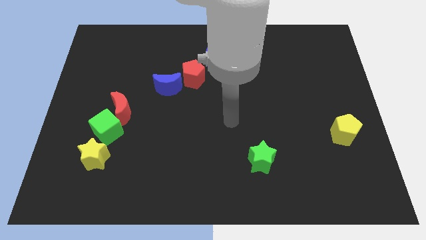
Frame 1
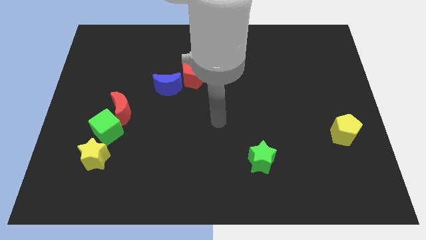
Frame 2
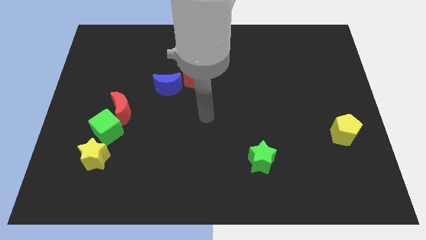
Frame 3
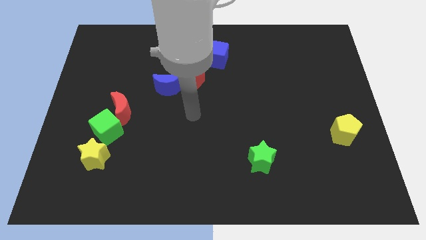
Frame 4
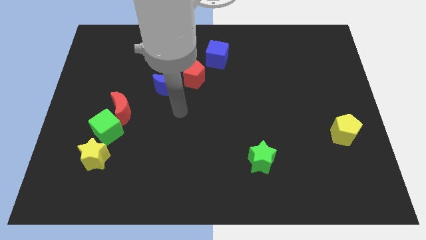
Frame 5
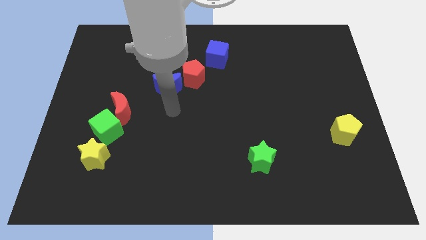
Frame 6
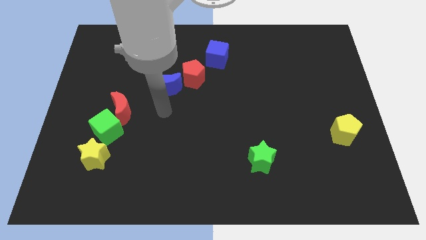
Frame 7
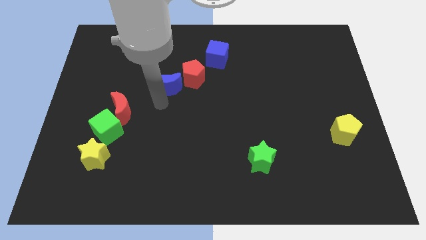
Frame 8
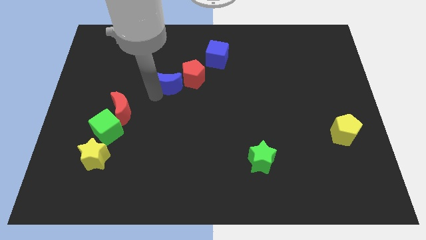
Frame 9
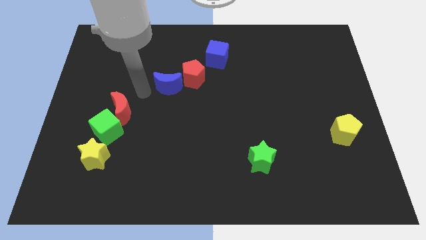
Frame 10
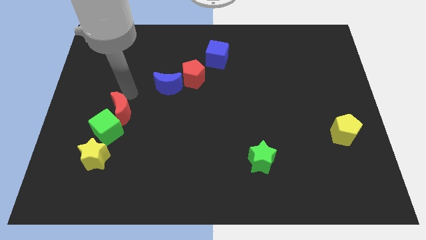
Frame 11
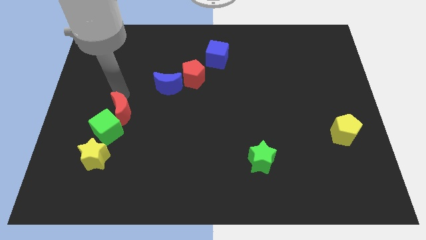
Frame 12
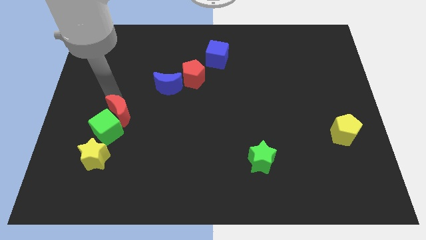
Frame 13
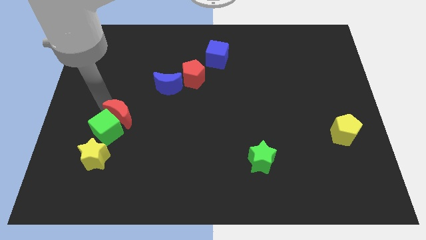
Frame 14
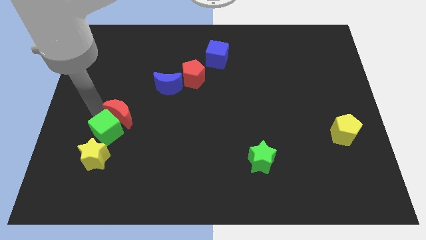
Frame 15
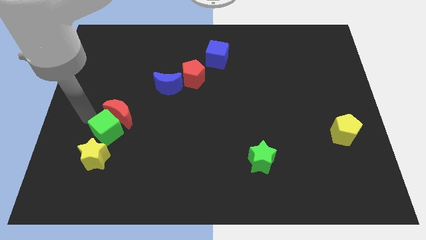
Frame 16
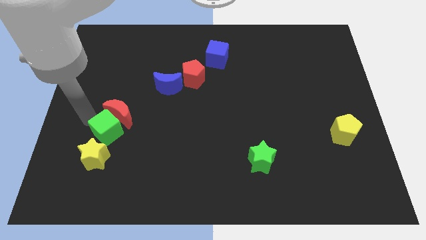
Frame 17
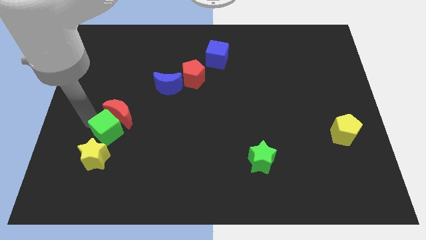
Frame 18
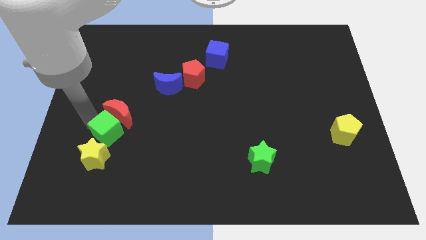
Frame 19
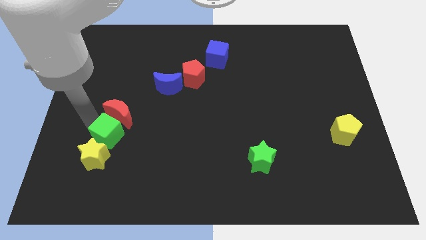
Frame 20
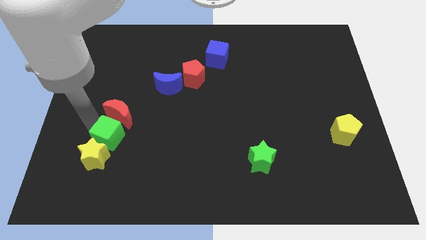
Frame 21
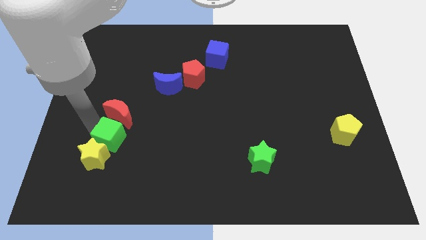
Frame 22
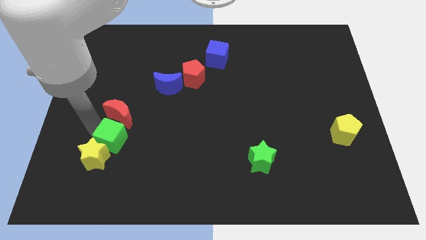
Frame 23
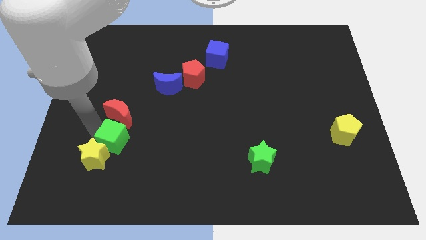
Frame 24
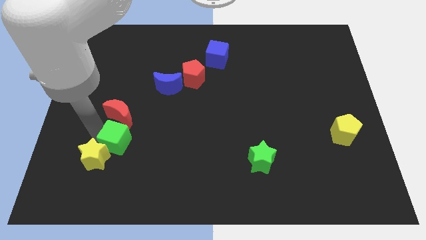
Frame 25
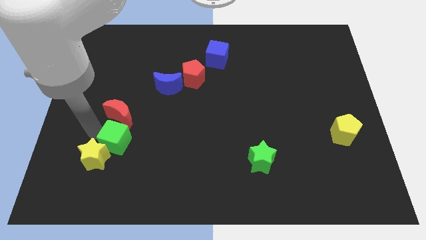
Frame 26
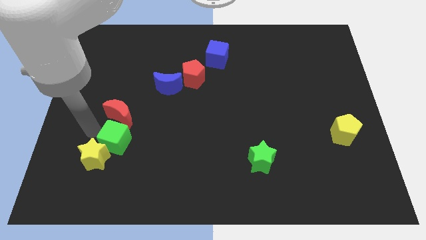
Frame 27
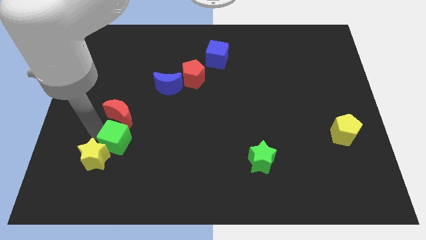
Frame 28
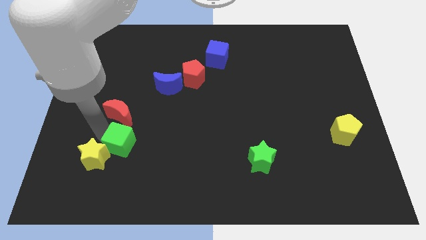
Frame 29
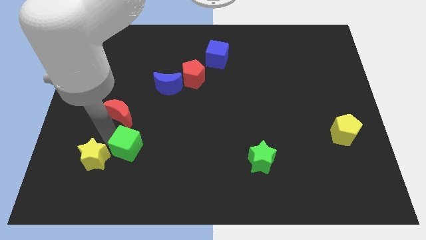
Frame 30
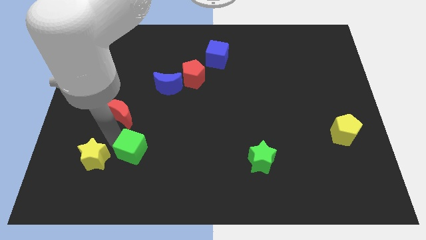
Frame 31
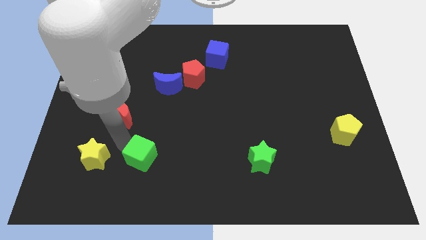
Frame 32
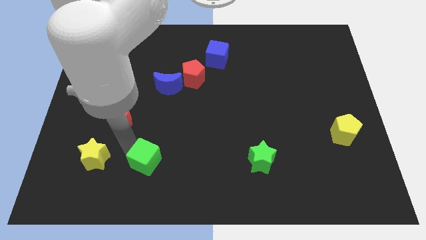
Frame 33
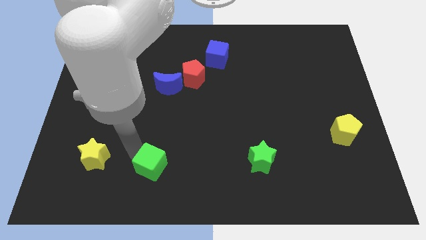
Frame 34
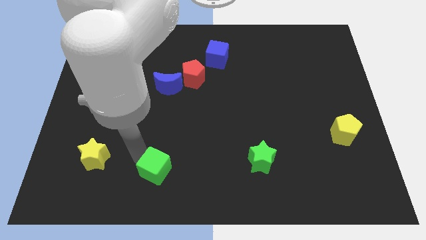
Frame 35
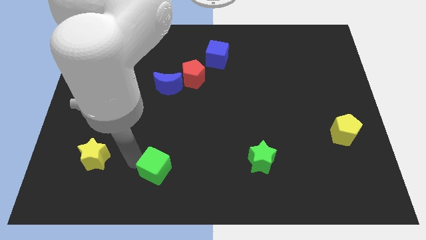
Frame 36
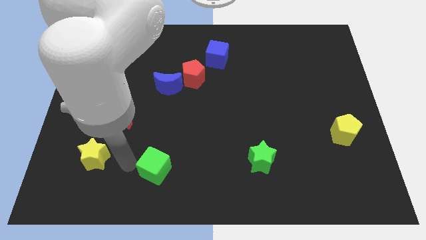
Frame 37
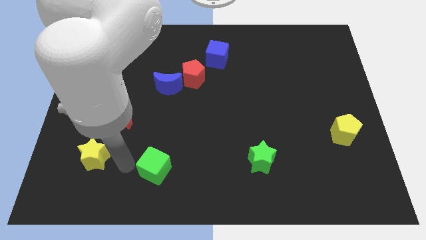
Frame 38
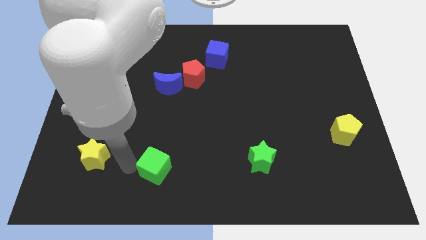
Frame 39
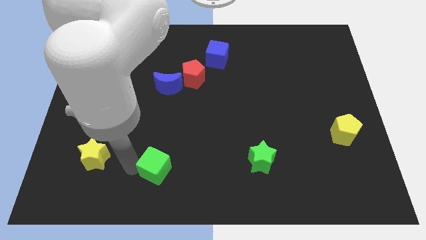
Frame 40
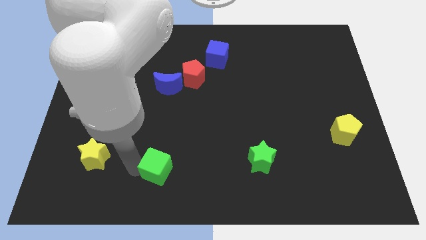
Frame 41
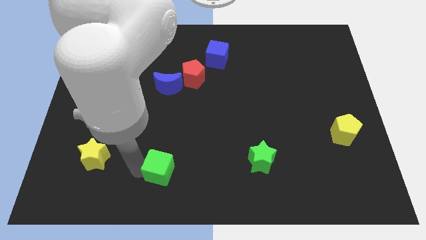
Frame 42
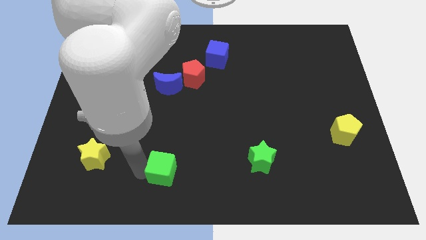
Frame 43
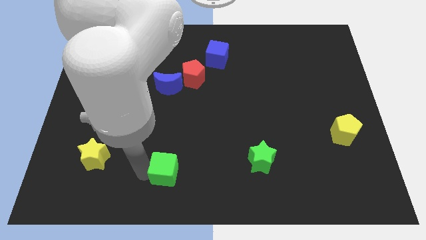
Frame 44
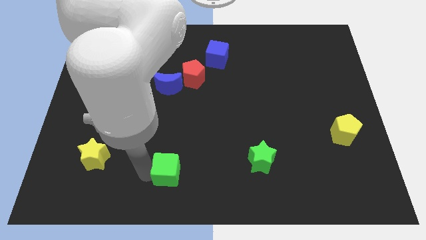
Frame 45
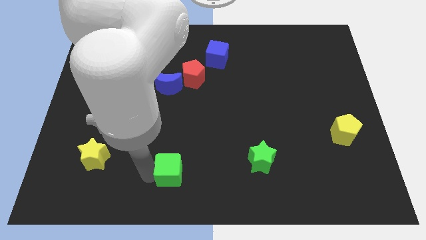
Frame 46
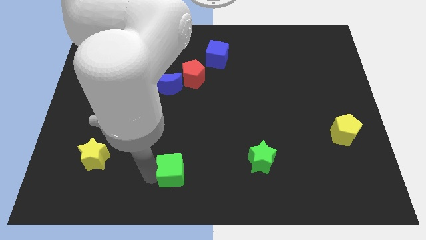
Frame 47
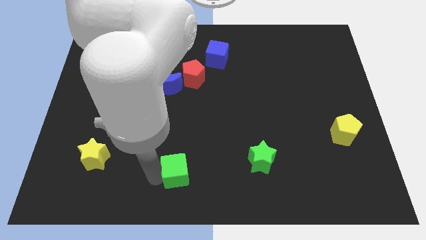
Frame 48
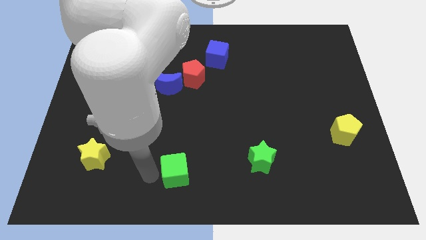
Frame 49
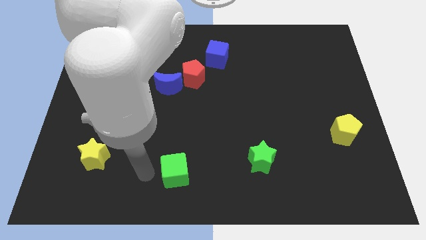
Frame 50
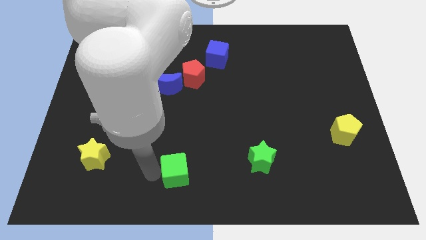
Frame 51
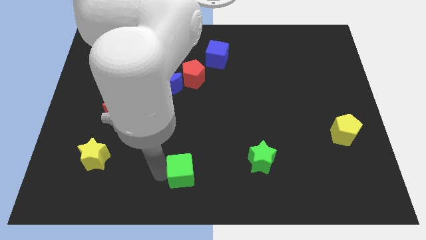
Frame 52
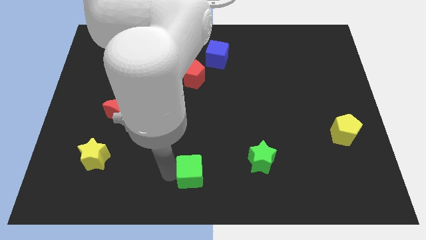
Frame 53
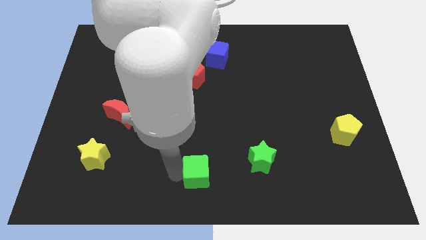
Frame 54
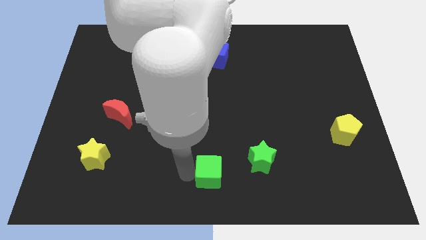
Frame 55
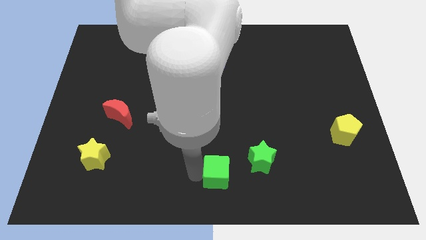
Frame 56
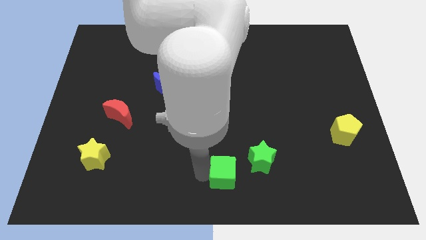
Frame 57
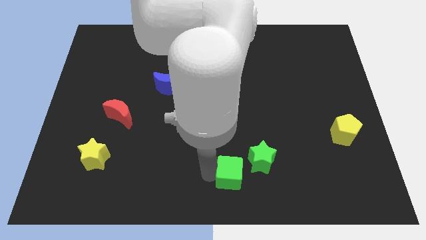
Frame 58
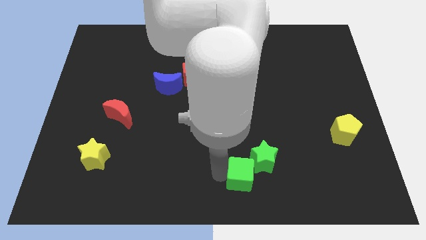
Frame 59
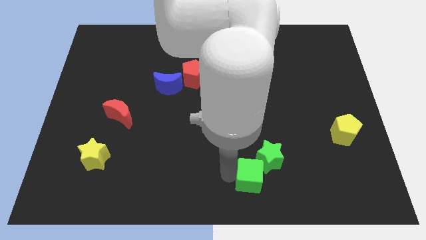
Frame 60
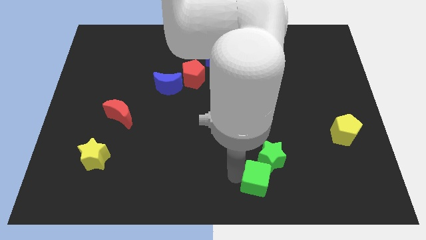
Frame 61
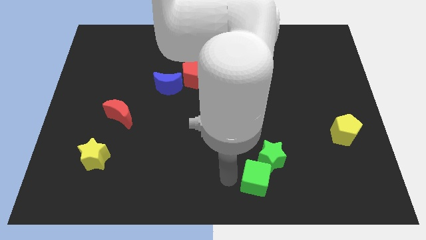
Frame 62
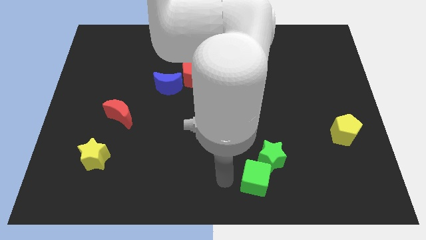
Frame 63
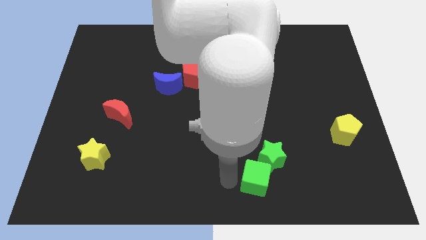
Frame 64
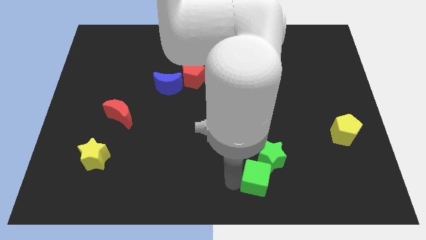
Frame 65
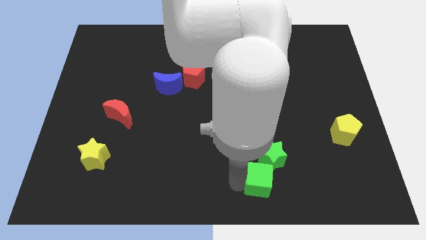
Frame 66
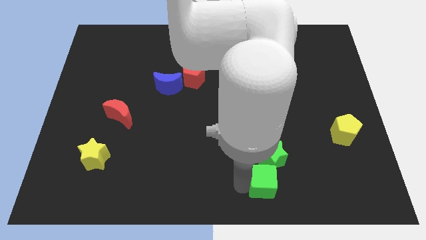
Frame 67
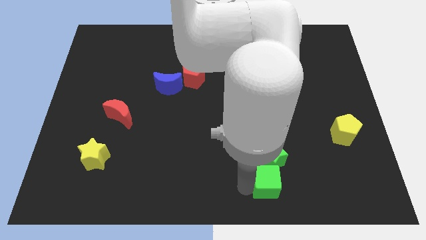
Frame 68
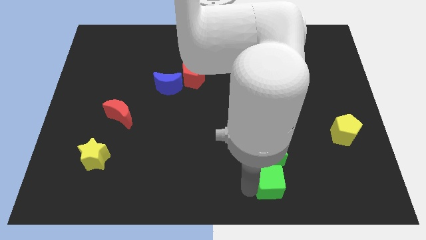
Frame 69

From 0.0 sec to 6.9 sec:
put the green cube to the bottom right side of the green star

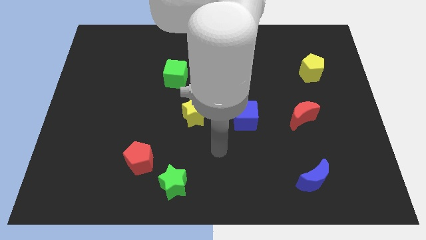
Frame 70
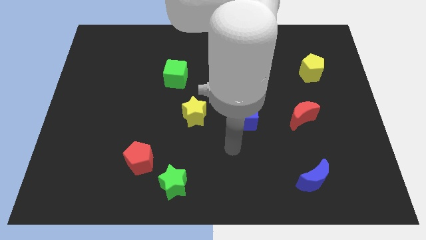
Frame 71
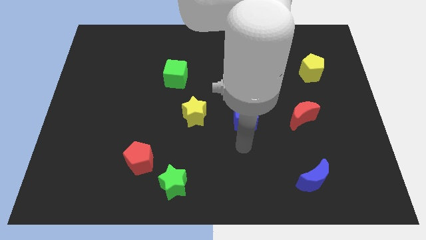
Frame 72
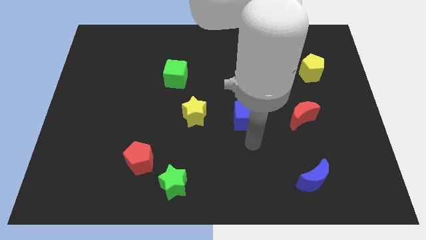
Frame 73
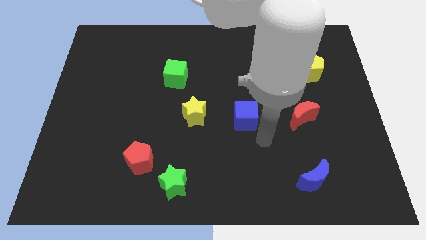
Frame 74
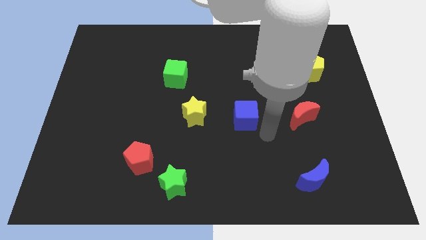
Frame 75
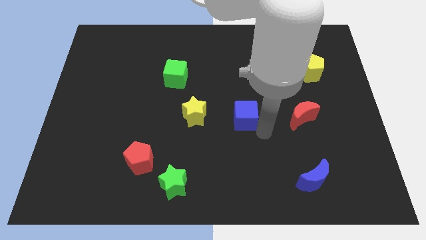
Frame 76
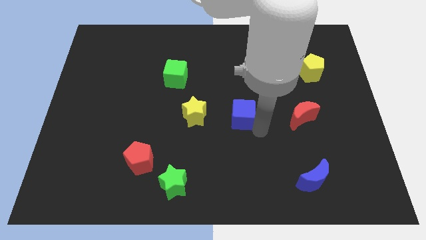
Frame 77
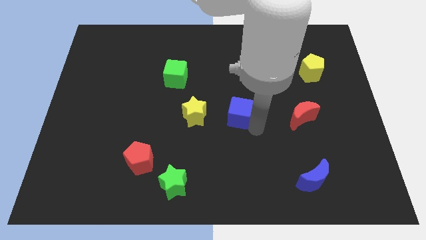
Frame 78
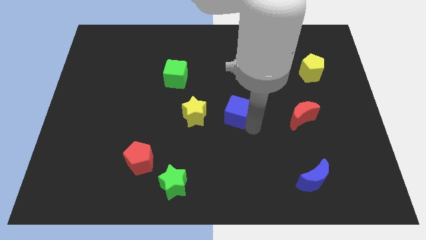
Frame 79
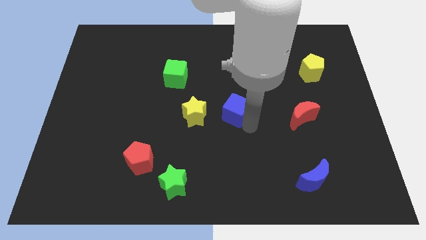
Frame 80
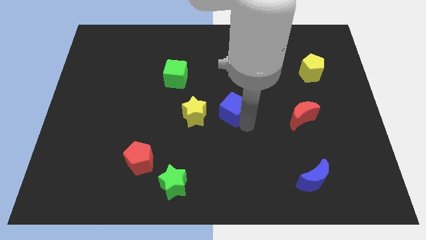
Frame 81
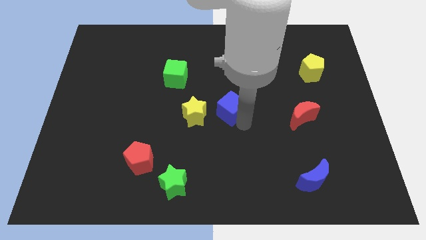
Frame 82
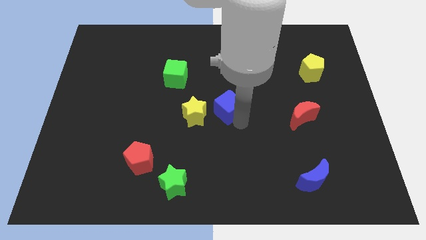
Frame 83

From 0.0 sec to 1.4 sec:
slide the blue cube diagonally up and to the right of the yellow star
